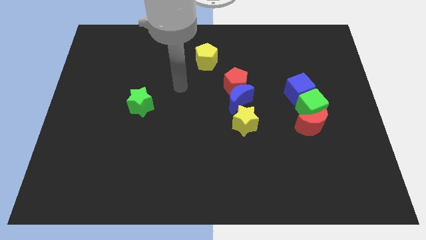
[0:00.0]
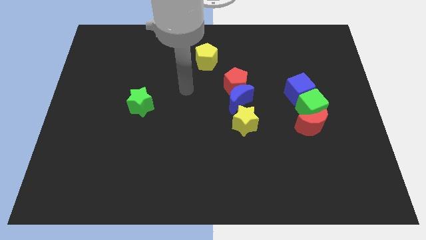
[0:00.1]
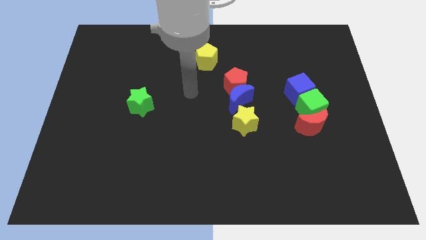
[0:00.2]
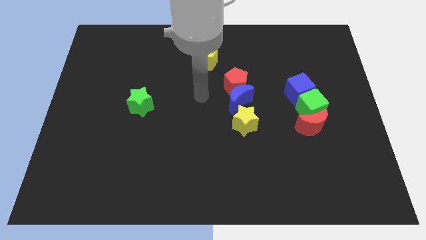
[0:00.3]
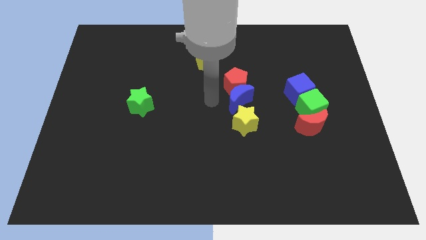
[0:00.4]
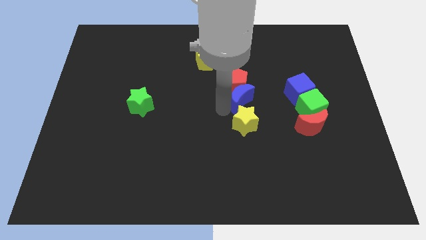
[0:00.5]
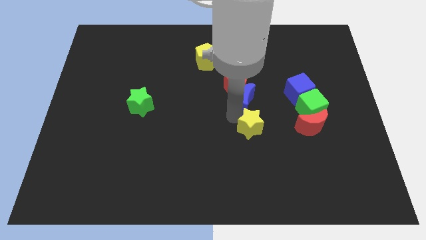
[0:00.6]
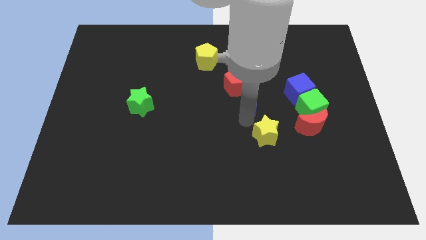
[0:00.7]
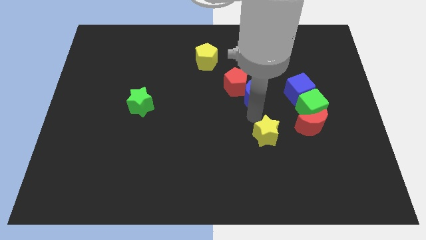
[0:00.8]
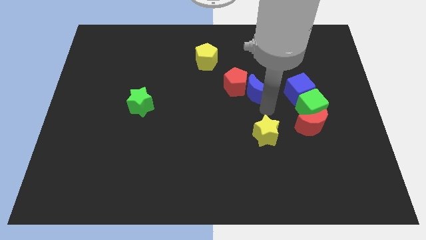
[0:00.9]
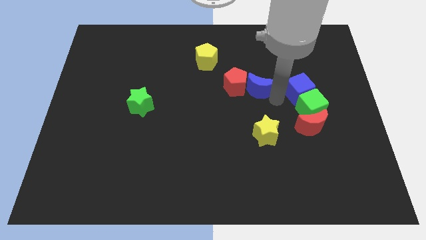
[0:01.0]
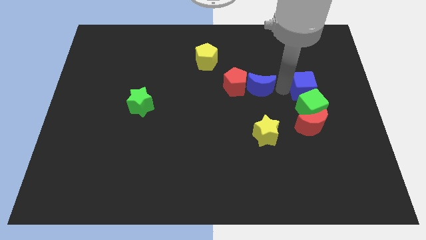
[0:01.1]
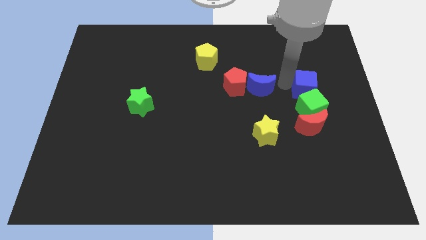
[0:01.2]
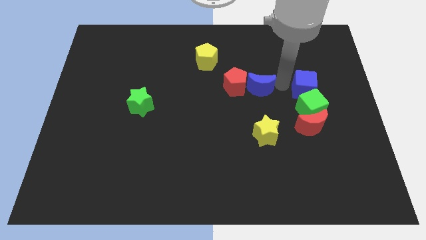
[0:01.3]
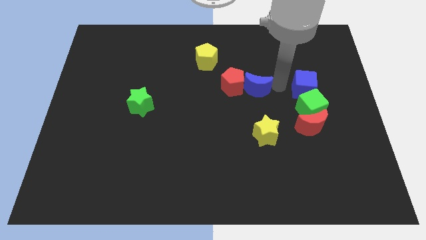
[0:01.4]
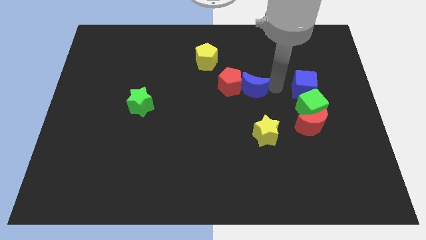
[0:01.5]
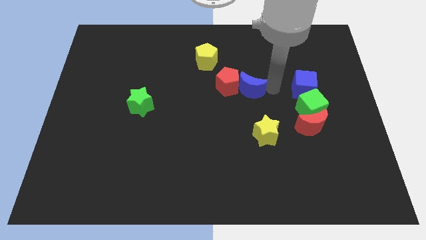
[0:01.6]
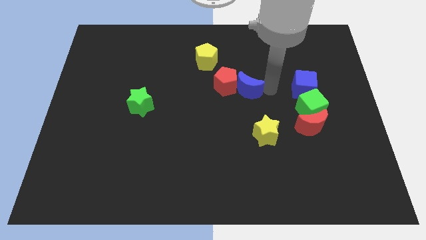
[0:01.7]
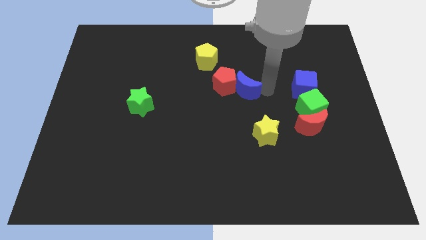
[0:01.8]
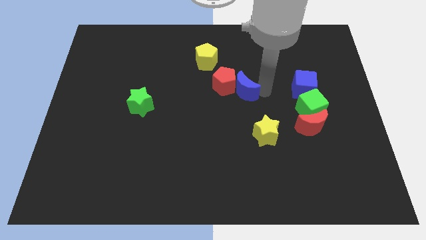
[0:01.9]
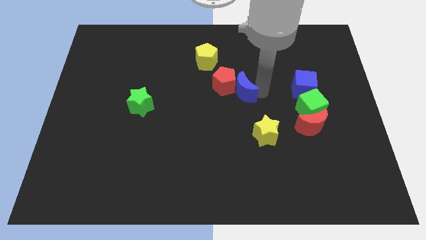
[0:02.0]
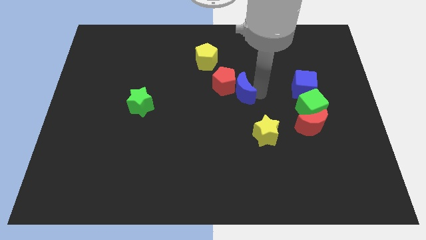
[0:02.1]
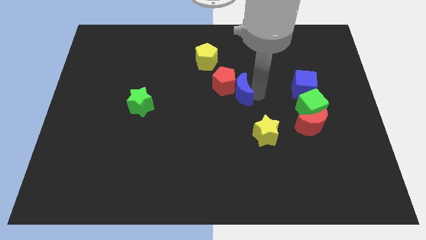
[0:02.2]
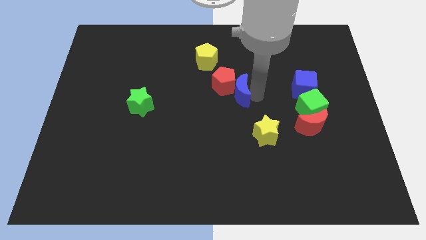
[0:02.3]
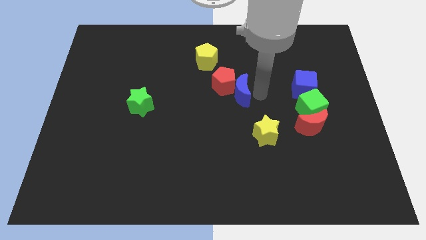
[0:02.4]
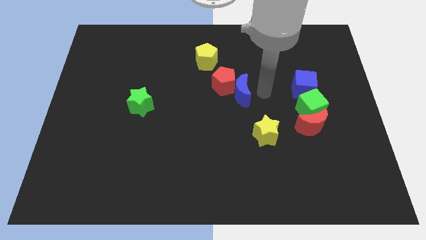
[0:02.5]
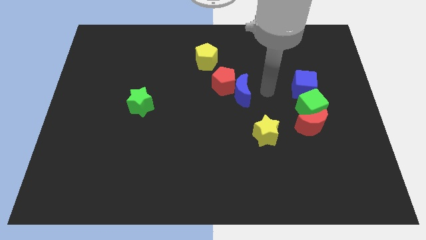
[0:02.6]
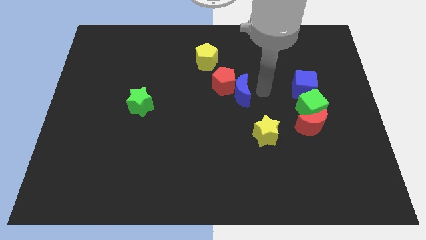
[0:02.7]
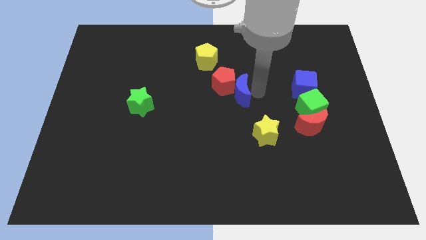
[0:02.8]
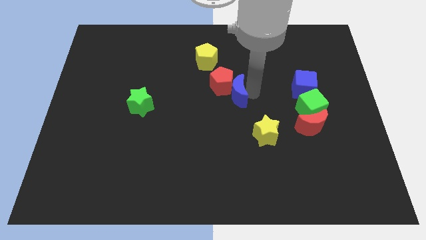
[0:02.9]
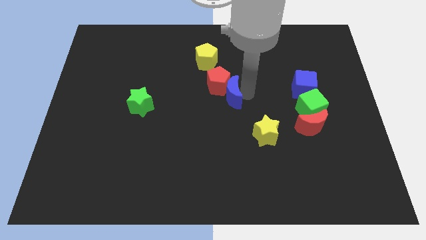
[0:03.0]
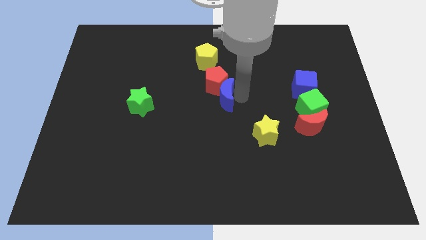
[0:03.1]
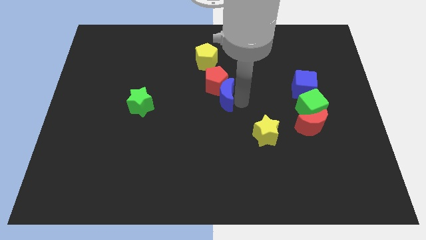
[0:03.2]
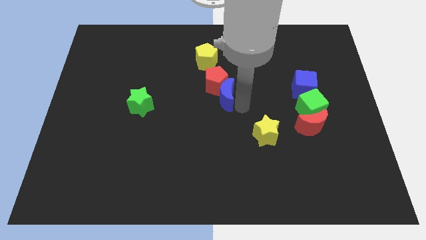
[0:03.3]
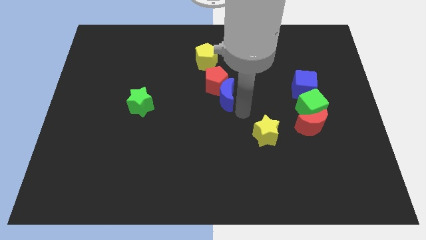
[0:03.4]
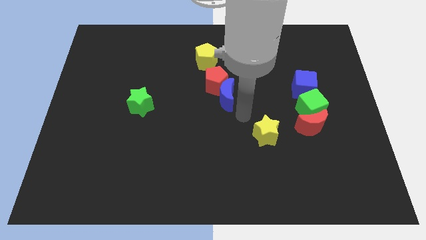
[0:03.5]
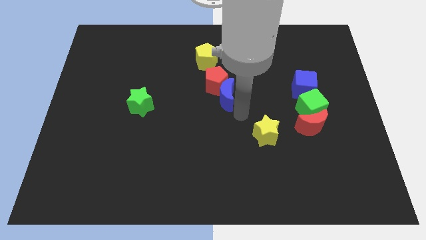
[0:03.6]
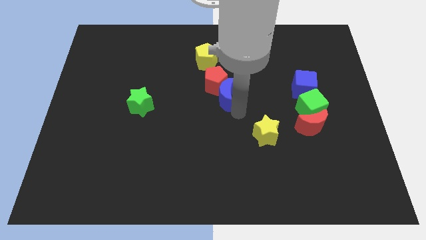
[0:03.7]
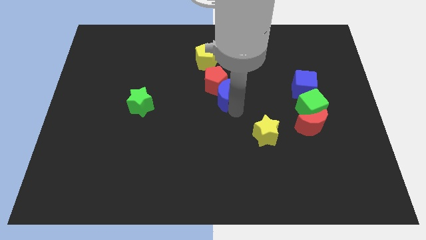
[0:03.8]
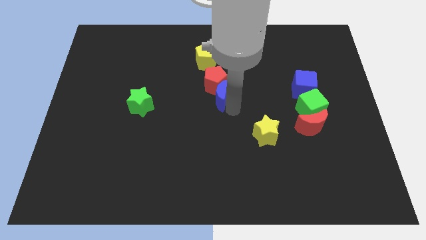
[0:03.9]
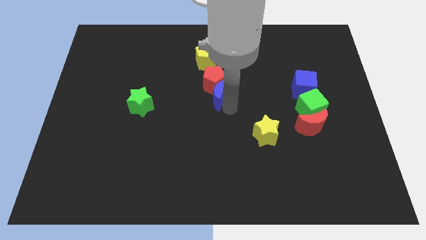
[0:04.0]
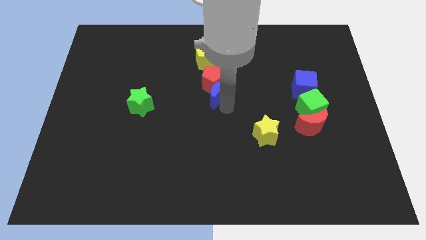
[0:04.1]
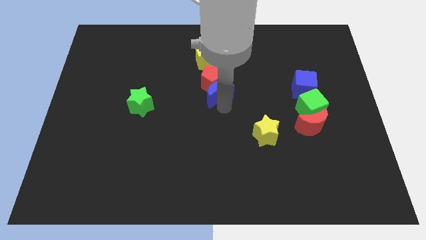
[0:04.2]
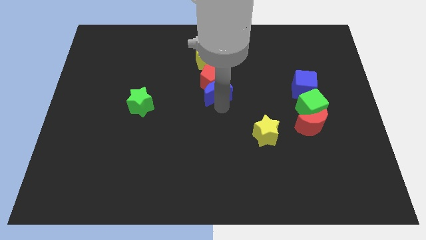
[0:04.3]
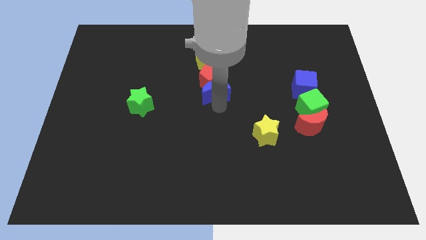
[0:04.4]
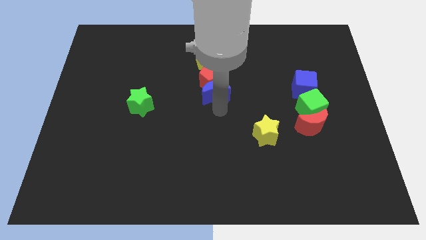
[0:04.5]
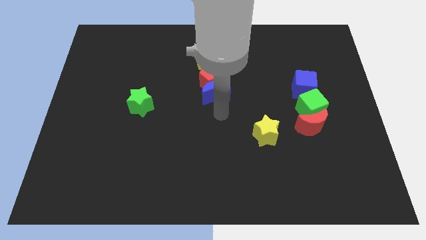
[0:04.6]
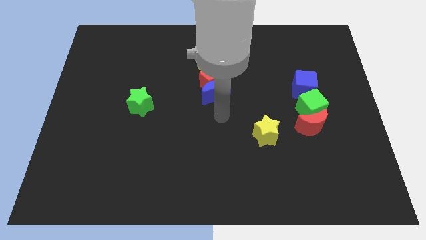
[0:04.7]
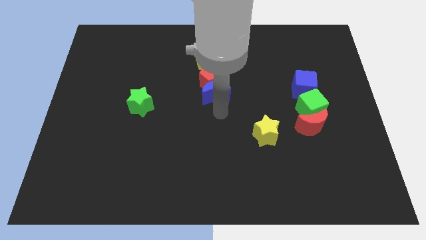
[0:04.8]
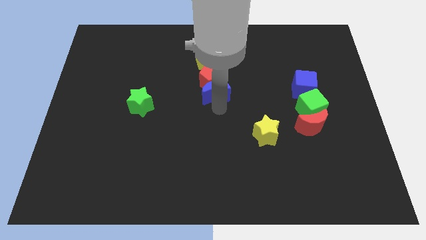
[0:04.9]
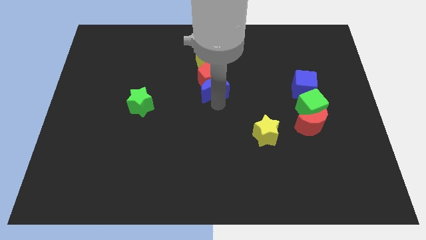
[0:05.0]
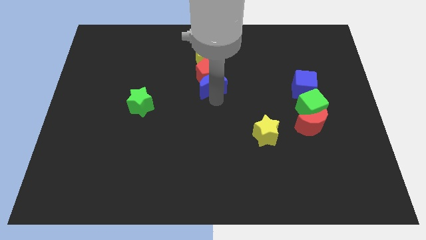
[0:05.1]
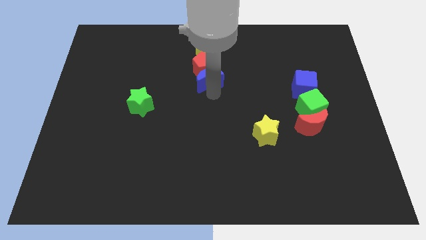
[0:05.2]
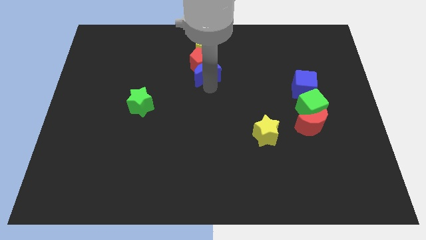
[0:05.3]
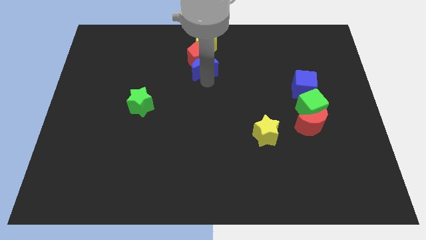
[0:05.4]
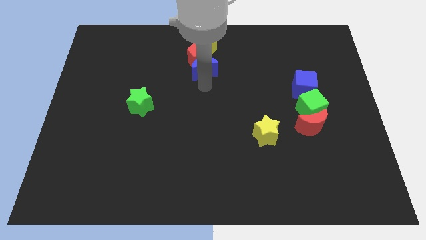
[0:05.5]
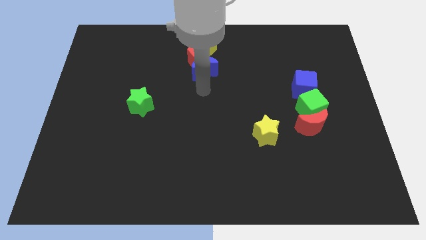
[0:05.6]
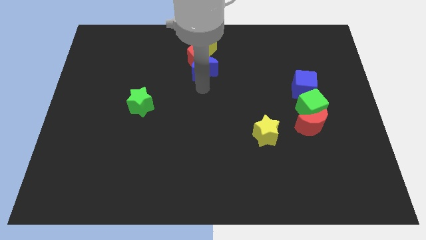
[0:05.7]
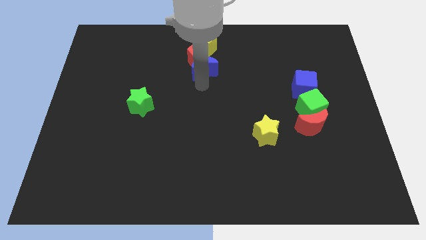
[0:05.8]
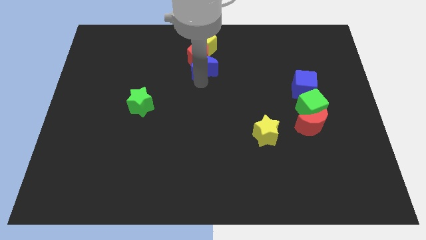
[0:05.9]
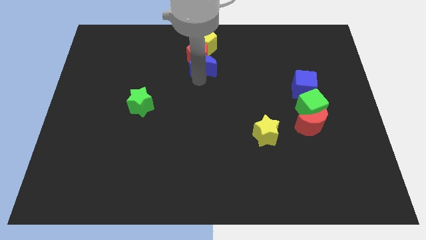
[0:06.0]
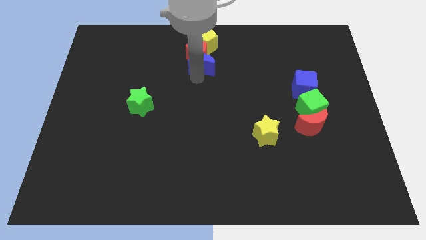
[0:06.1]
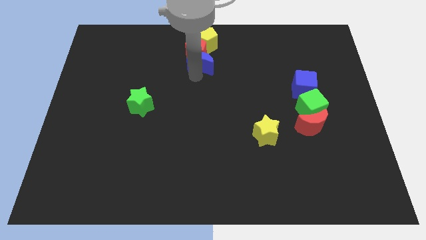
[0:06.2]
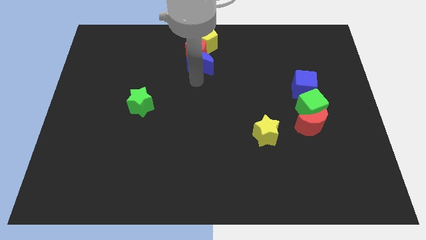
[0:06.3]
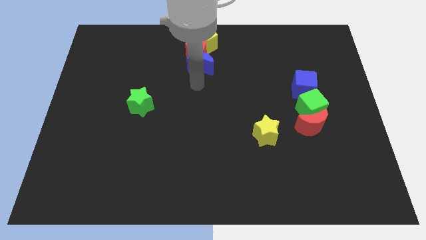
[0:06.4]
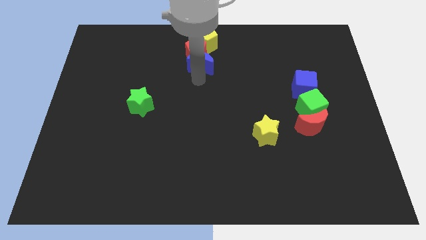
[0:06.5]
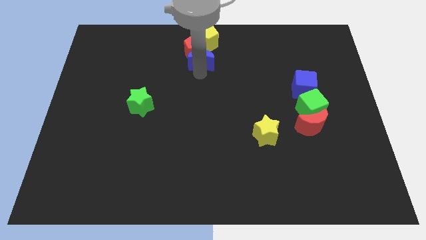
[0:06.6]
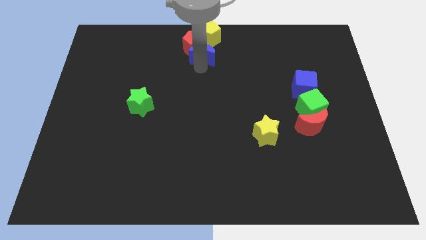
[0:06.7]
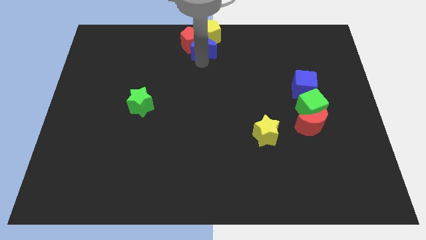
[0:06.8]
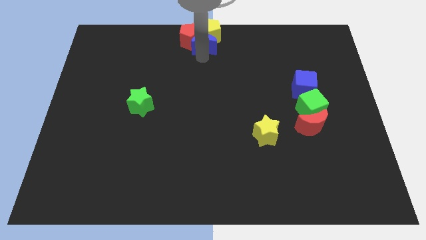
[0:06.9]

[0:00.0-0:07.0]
slide the blue moon towards the yellow pentagon

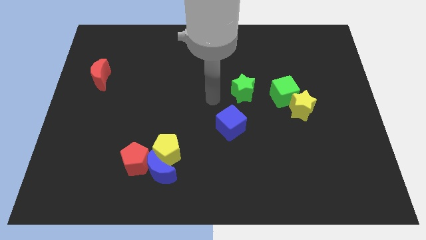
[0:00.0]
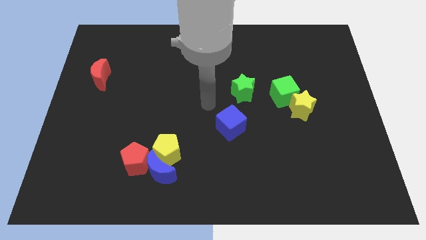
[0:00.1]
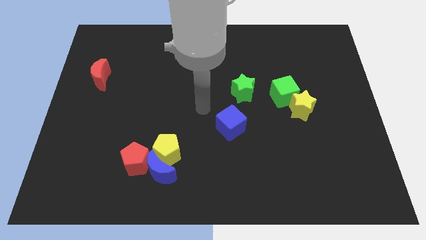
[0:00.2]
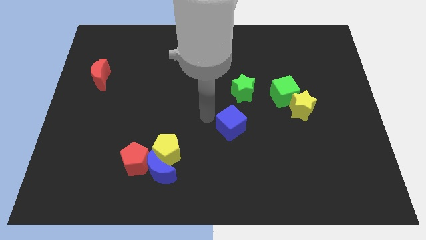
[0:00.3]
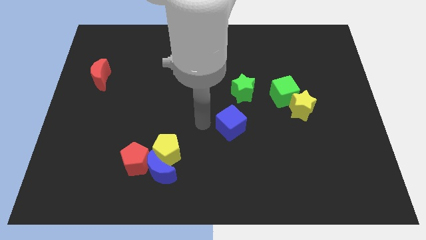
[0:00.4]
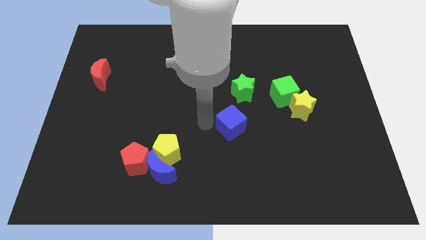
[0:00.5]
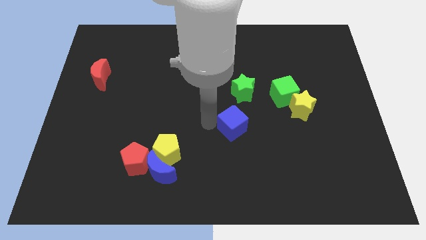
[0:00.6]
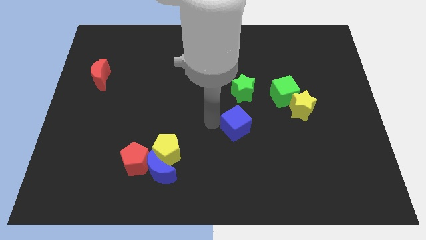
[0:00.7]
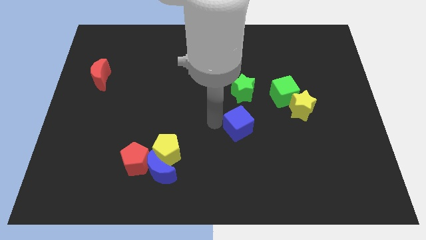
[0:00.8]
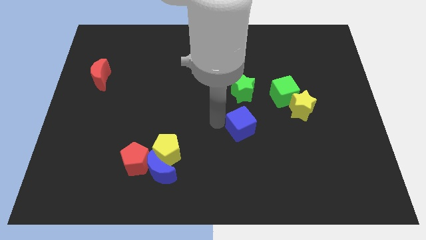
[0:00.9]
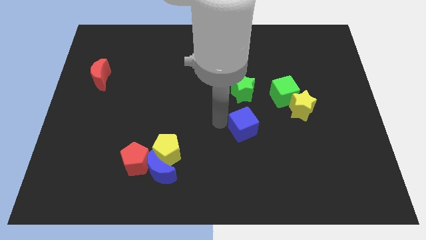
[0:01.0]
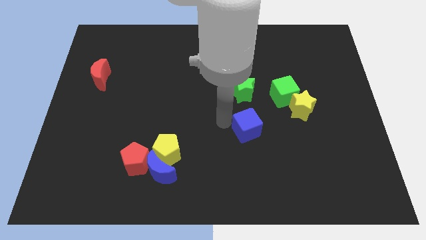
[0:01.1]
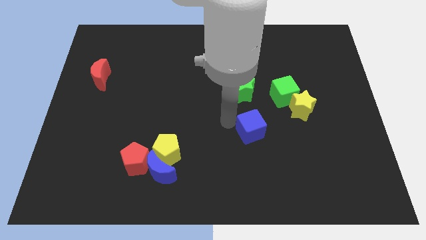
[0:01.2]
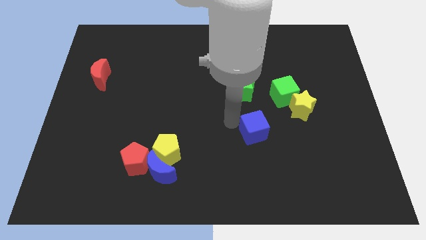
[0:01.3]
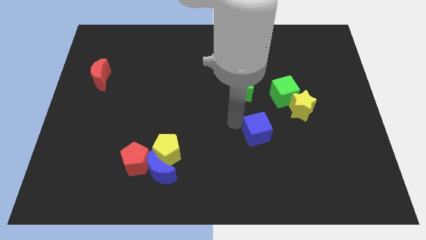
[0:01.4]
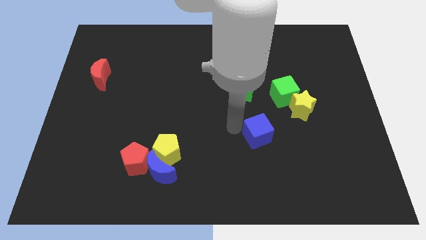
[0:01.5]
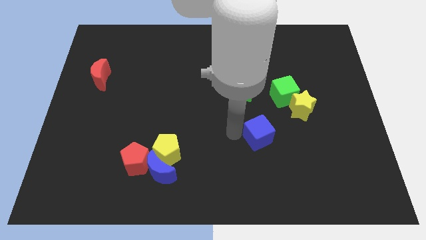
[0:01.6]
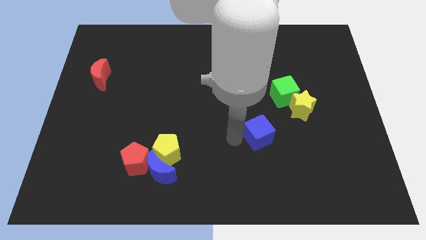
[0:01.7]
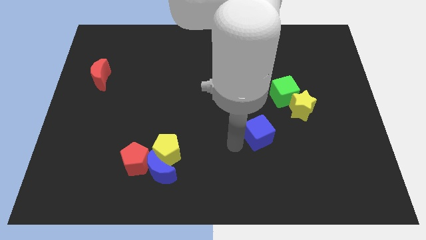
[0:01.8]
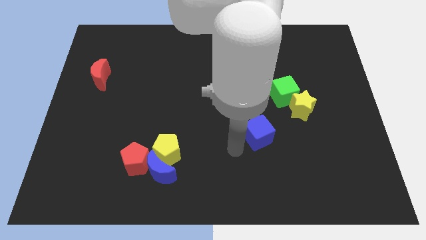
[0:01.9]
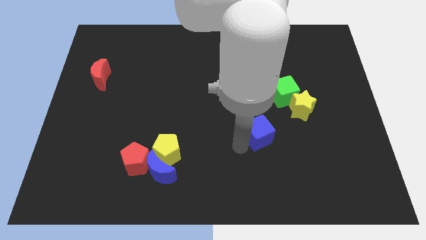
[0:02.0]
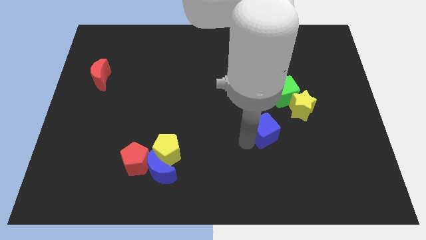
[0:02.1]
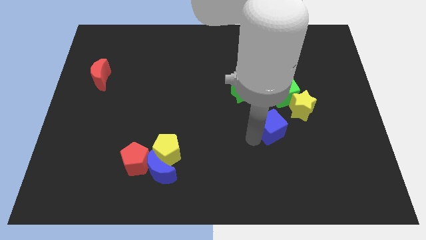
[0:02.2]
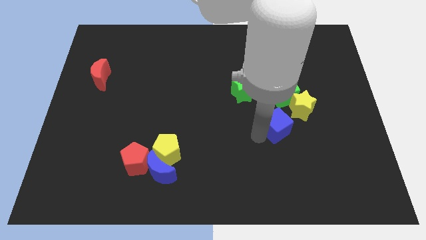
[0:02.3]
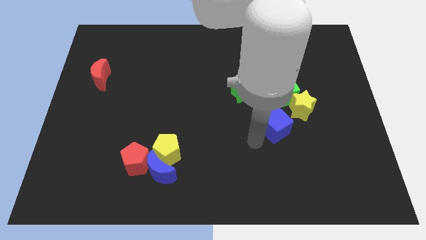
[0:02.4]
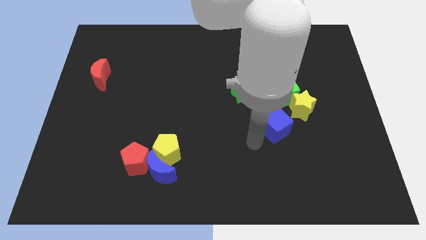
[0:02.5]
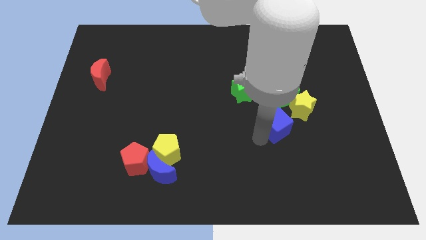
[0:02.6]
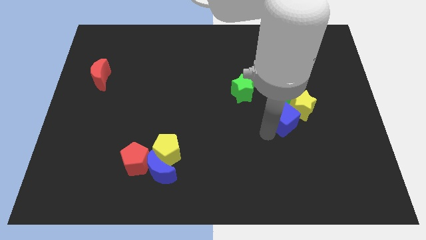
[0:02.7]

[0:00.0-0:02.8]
put the blue cube next to the yellow star
